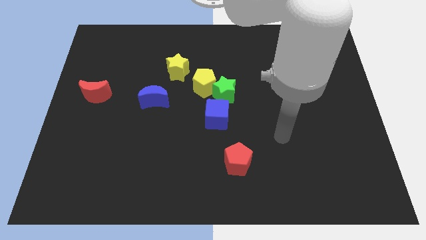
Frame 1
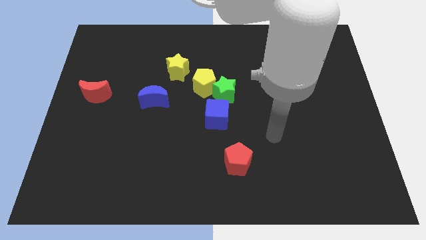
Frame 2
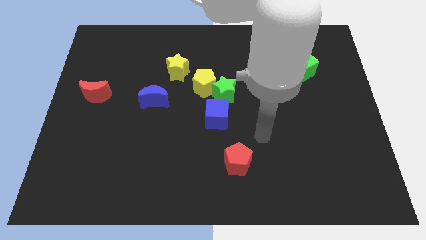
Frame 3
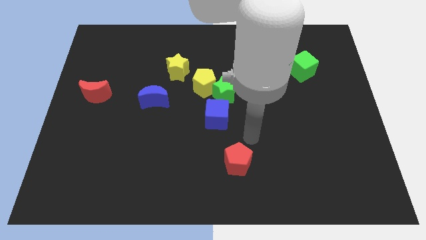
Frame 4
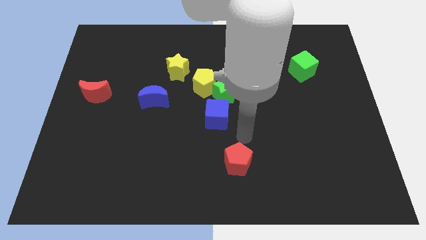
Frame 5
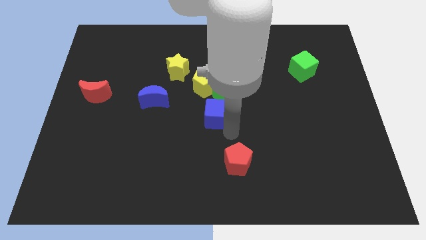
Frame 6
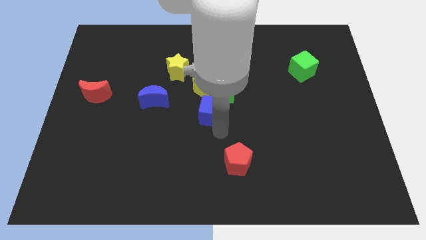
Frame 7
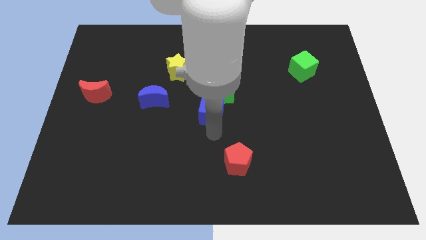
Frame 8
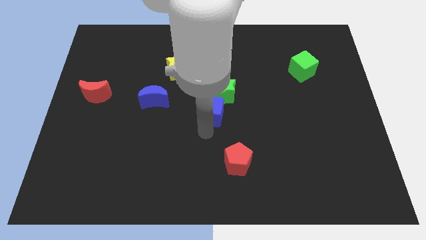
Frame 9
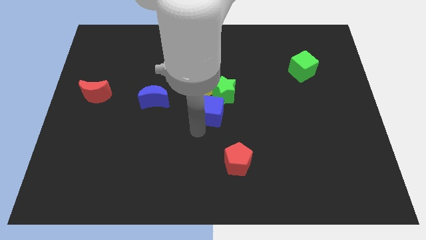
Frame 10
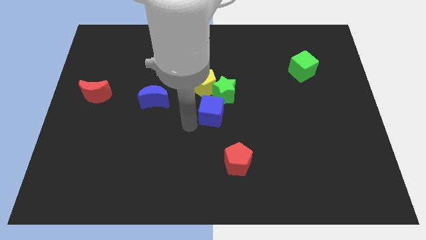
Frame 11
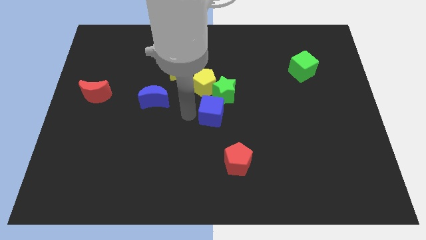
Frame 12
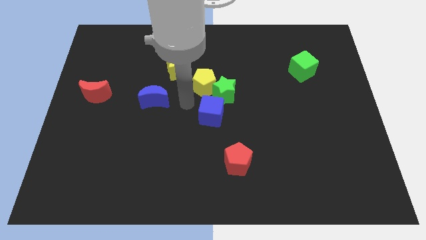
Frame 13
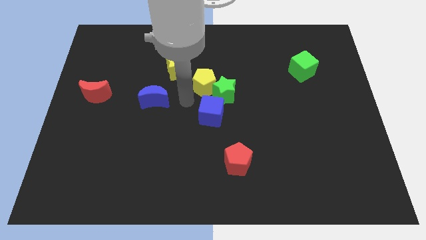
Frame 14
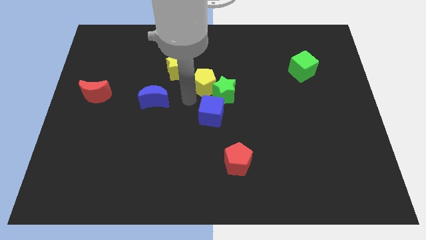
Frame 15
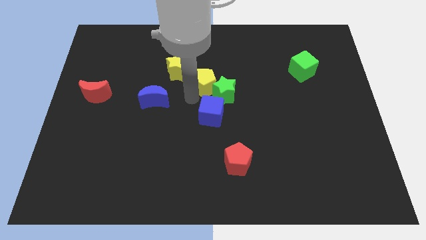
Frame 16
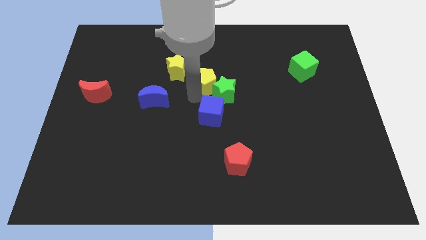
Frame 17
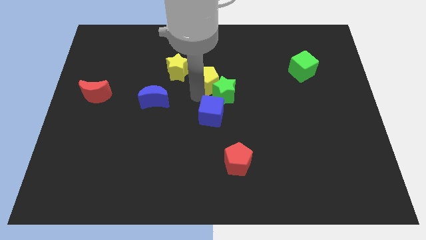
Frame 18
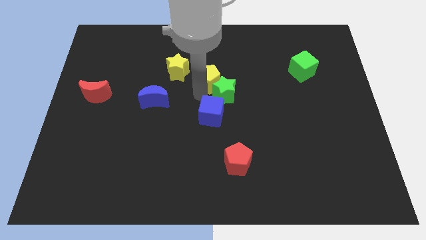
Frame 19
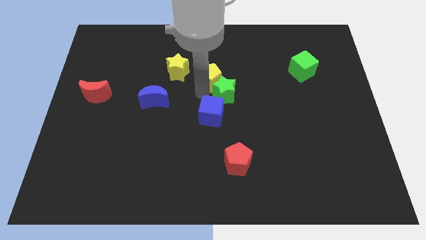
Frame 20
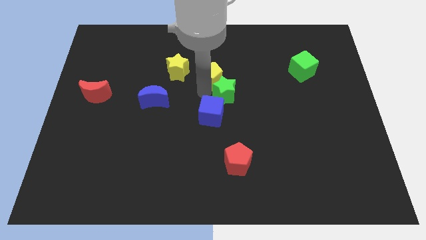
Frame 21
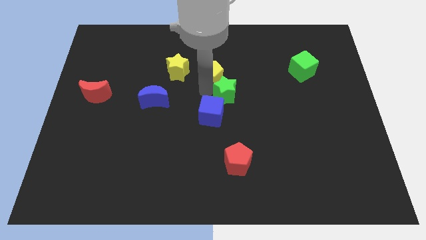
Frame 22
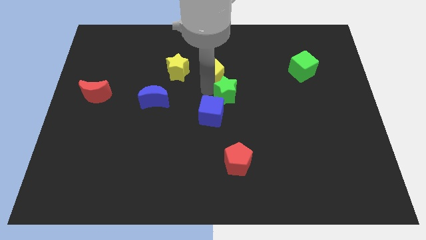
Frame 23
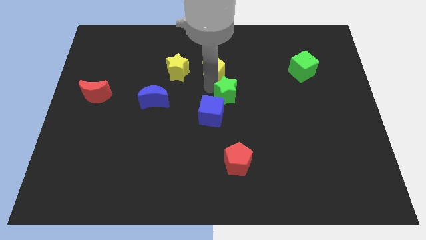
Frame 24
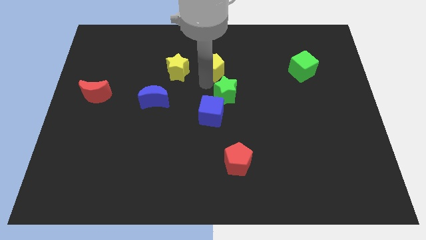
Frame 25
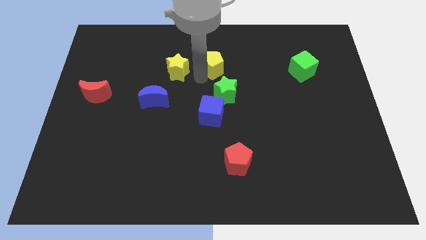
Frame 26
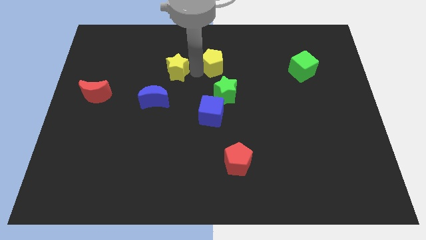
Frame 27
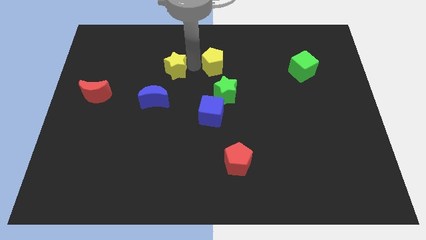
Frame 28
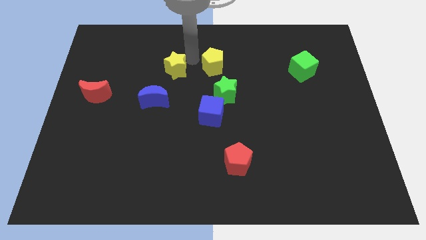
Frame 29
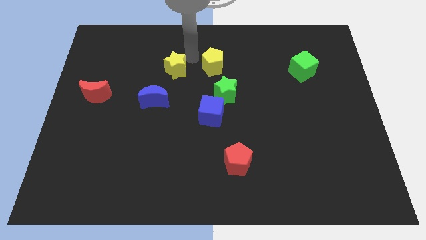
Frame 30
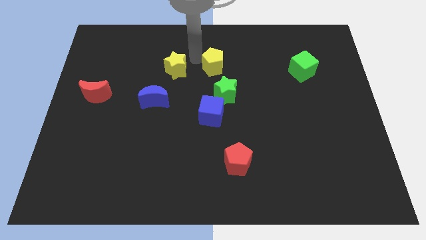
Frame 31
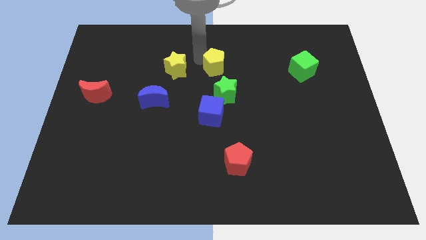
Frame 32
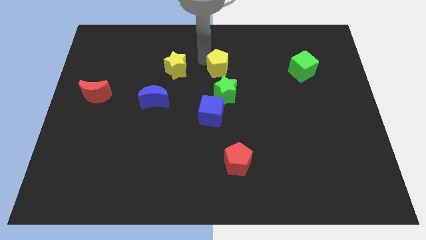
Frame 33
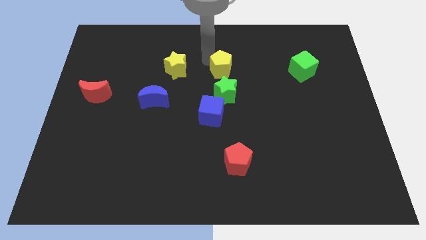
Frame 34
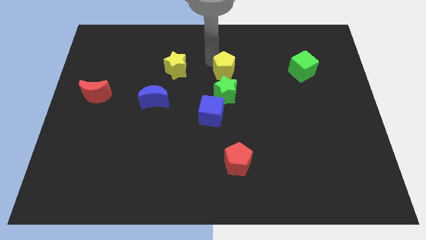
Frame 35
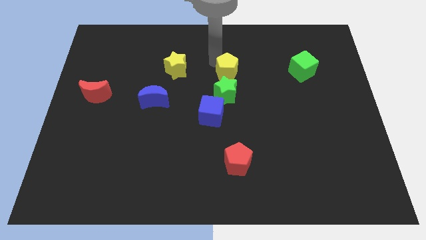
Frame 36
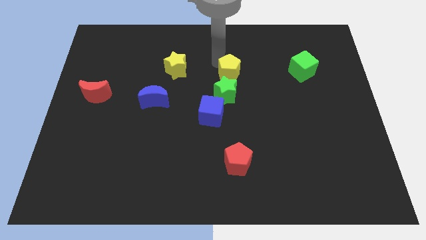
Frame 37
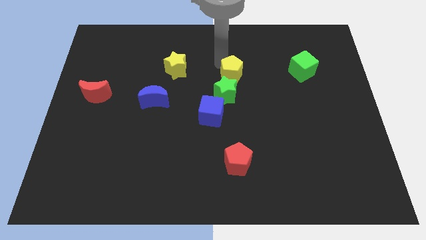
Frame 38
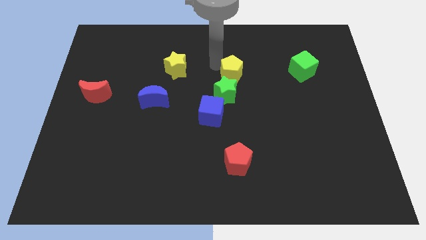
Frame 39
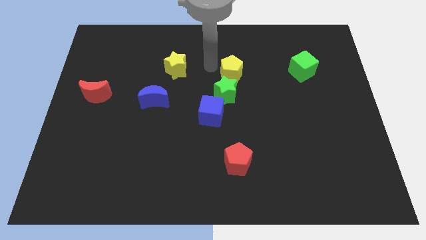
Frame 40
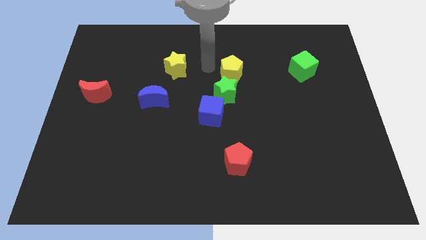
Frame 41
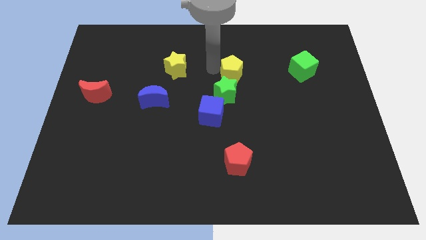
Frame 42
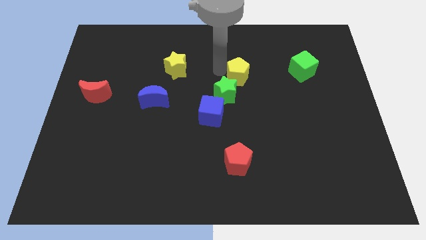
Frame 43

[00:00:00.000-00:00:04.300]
slightly slide the yellow pentagon to the right

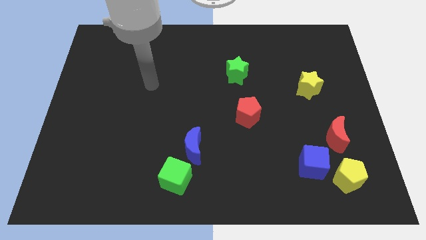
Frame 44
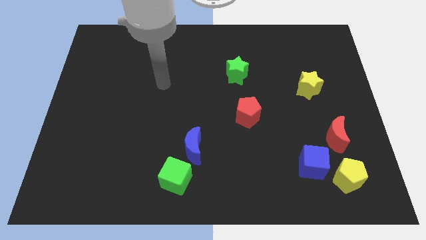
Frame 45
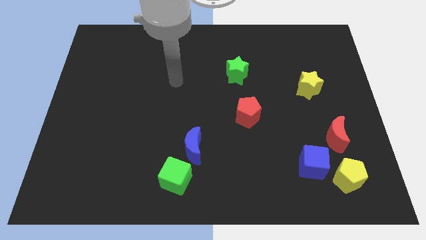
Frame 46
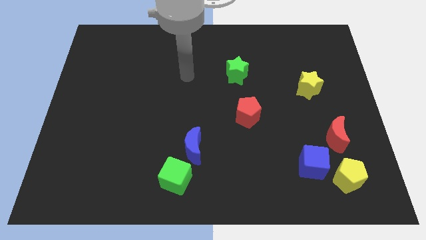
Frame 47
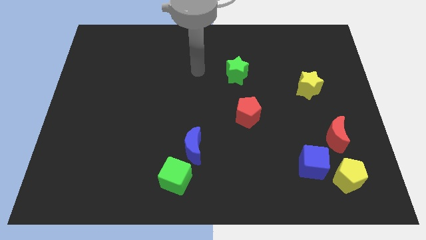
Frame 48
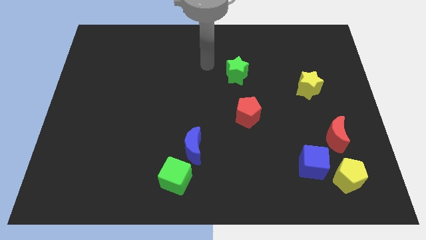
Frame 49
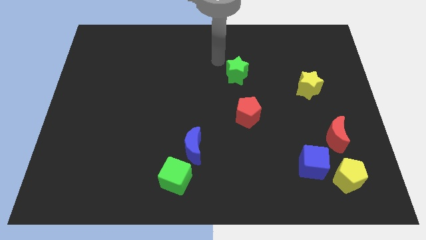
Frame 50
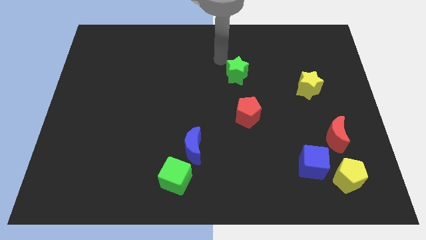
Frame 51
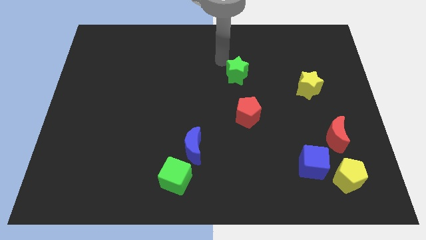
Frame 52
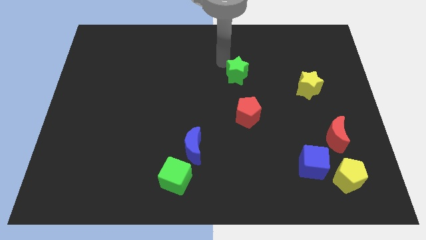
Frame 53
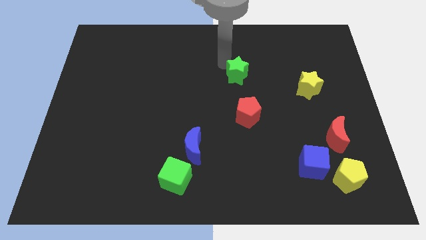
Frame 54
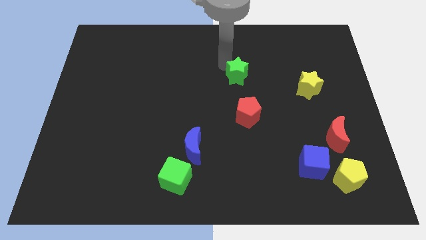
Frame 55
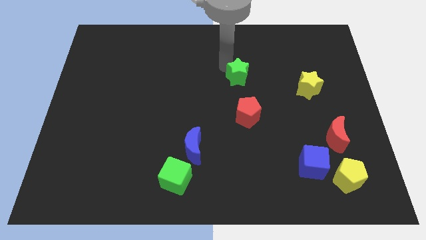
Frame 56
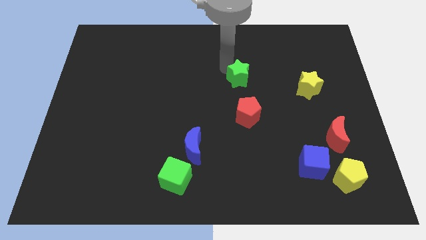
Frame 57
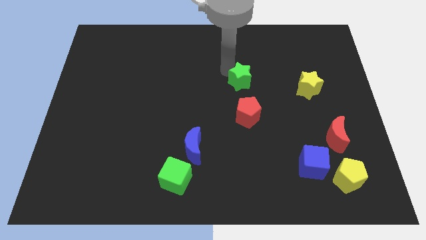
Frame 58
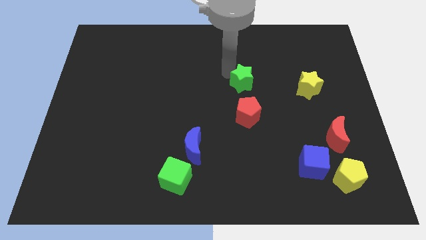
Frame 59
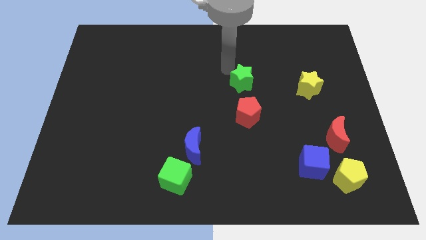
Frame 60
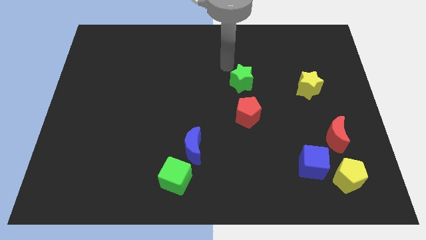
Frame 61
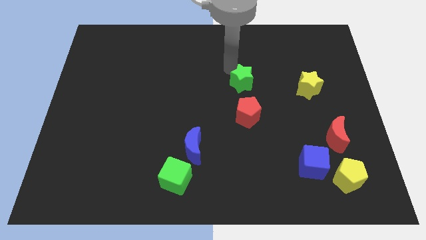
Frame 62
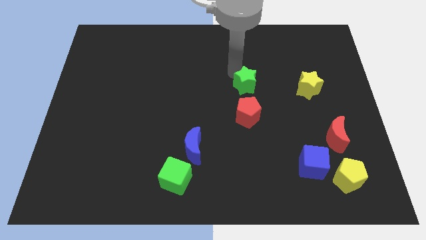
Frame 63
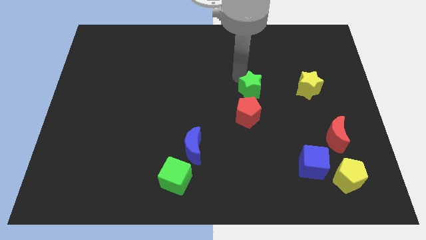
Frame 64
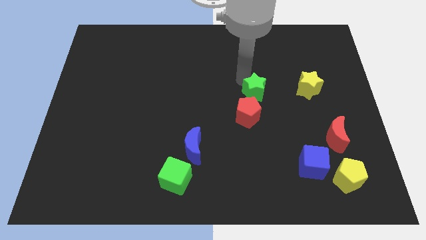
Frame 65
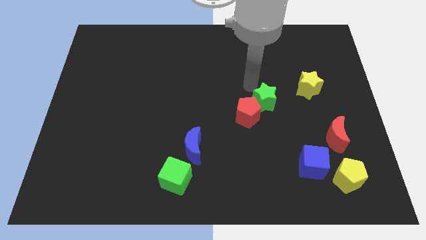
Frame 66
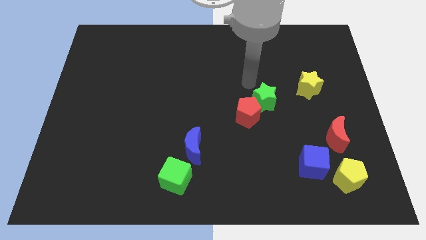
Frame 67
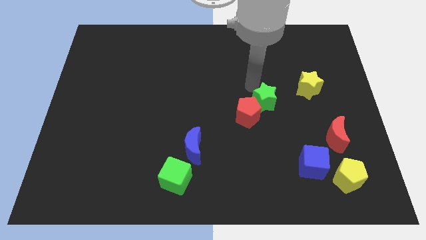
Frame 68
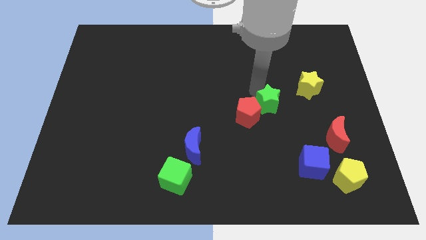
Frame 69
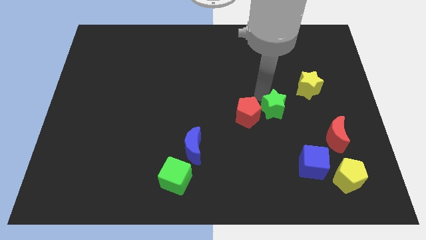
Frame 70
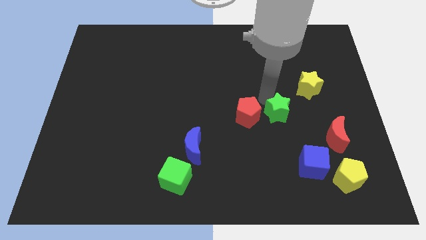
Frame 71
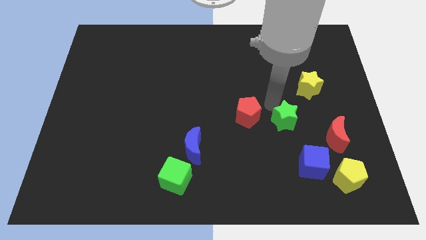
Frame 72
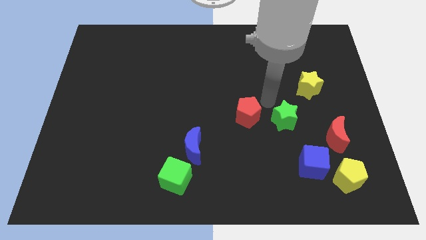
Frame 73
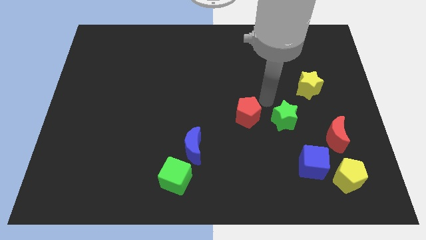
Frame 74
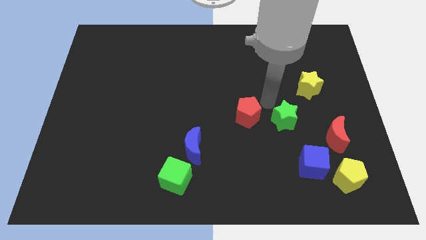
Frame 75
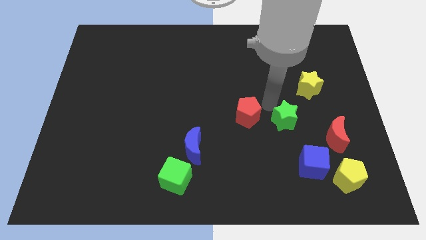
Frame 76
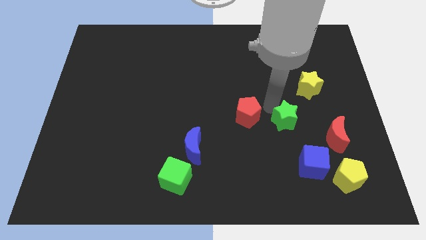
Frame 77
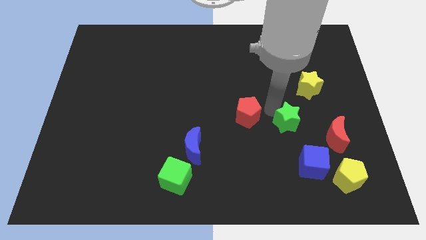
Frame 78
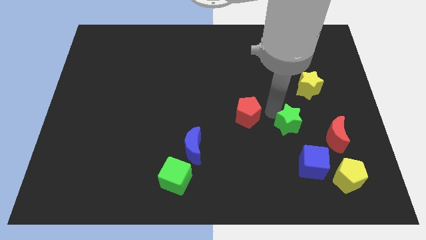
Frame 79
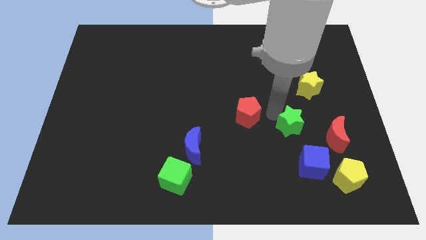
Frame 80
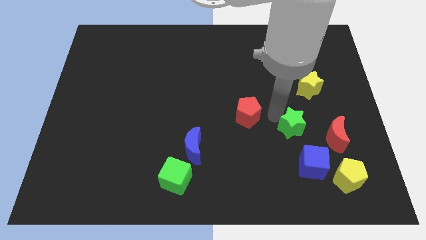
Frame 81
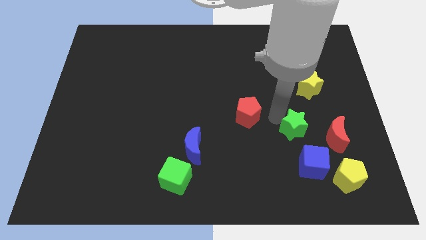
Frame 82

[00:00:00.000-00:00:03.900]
move the green star diagonally downwards and to the right

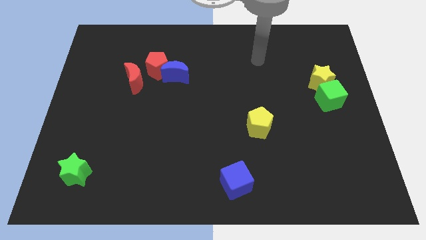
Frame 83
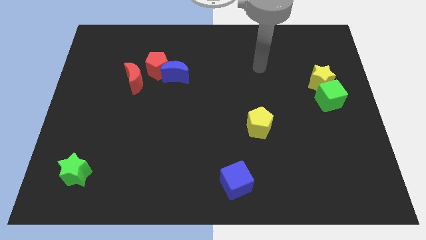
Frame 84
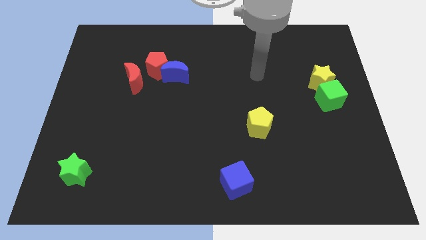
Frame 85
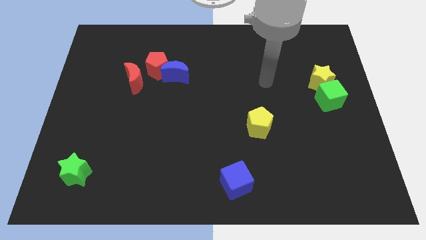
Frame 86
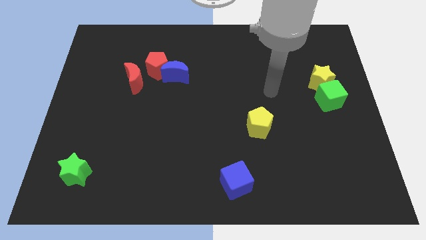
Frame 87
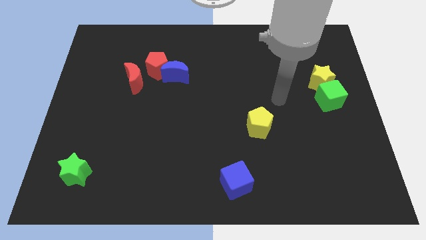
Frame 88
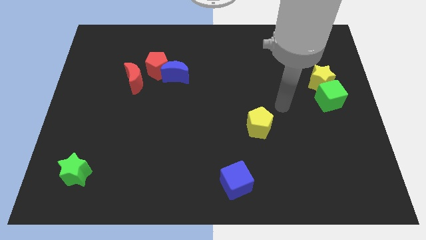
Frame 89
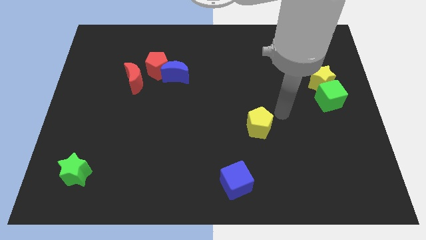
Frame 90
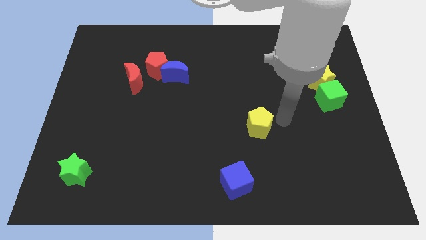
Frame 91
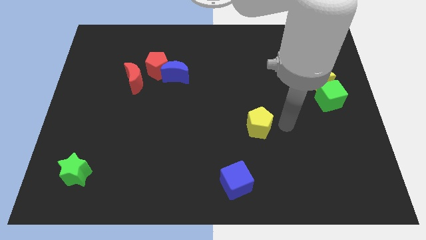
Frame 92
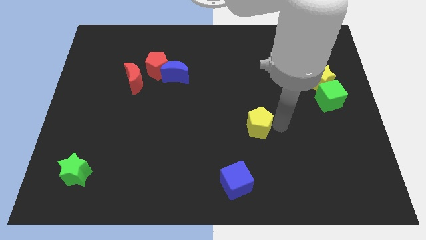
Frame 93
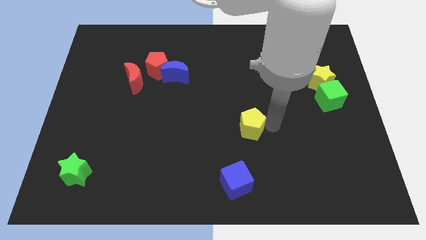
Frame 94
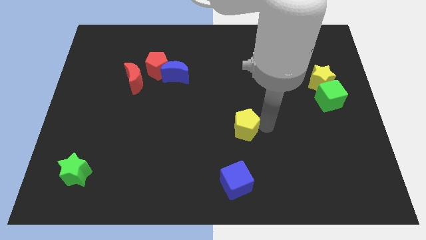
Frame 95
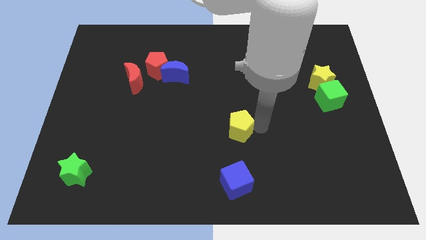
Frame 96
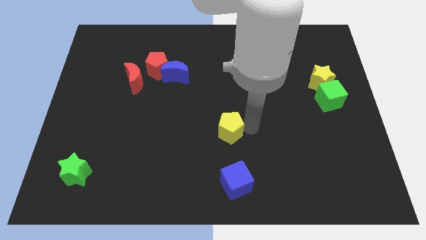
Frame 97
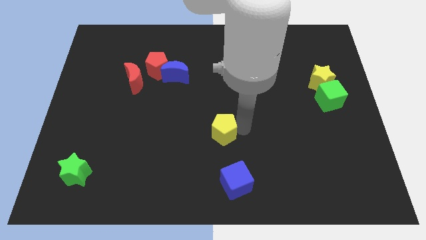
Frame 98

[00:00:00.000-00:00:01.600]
slide the yellow pentagon left slightly
